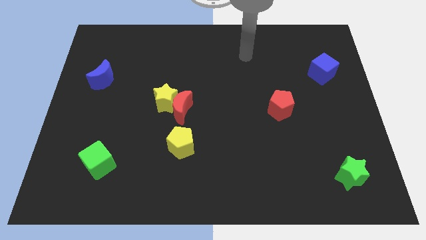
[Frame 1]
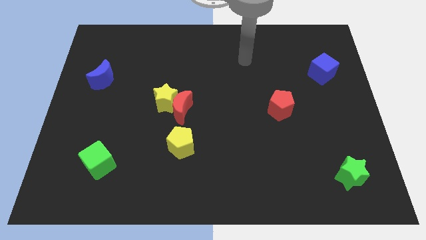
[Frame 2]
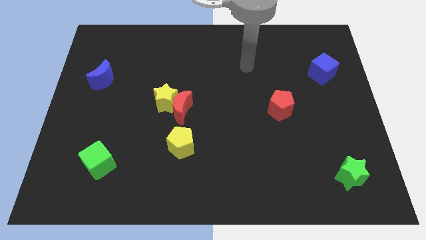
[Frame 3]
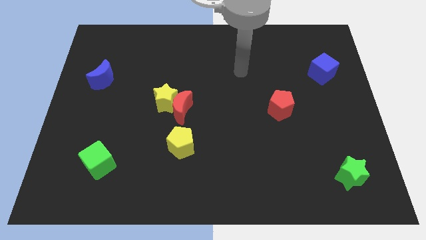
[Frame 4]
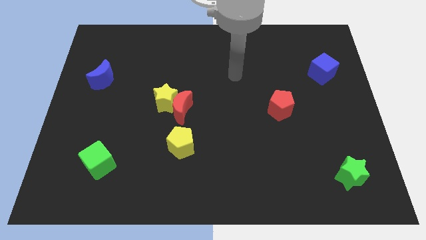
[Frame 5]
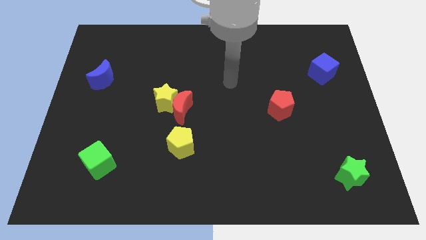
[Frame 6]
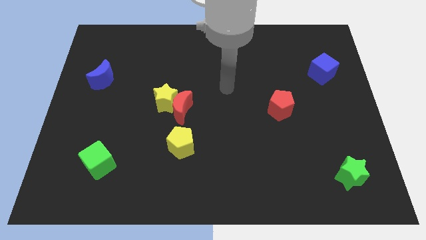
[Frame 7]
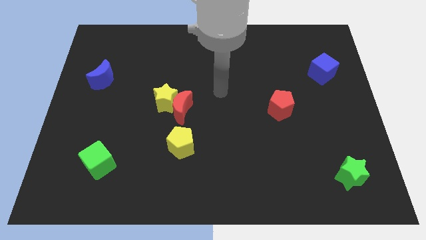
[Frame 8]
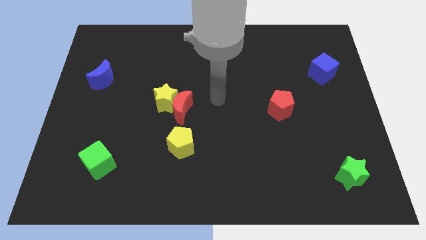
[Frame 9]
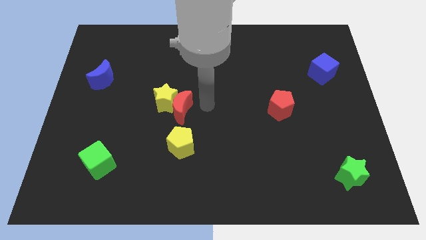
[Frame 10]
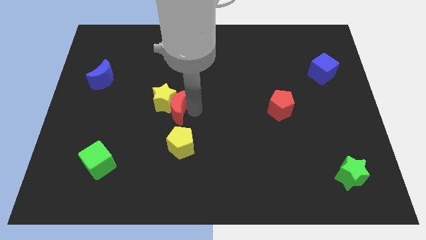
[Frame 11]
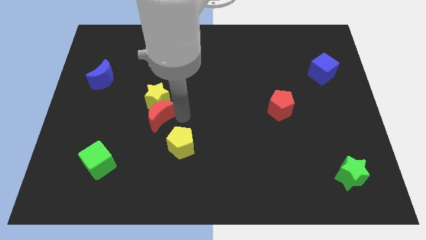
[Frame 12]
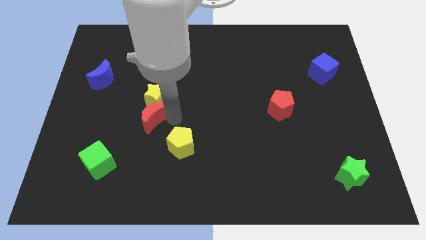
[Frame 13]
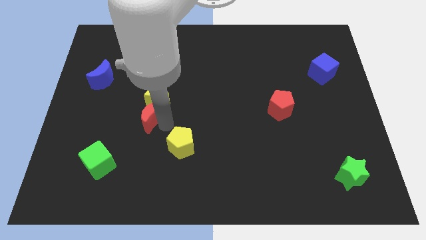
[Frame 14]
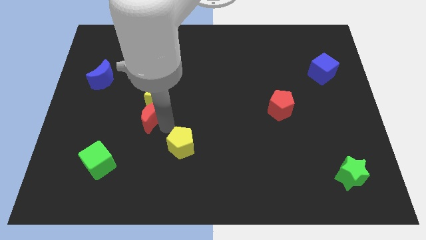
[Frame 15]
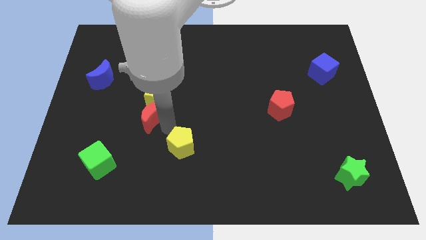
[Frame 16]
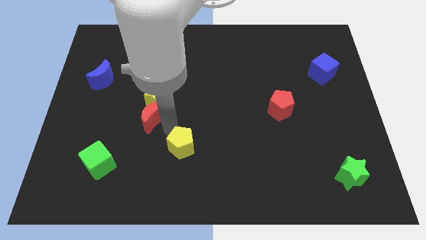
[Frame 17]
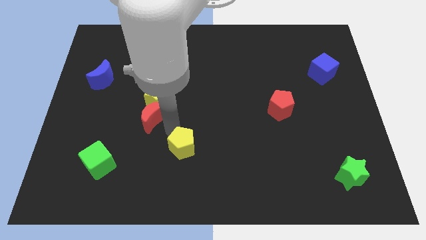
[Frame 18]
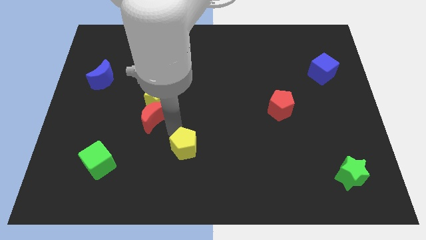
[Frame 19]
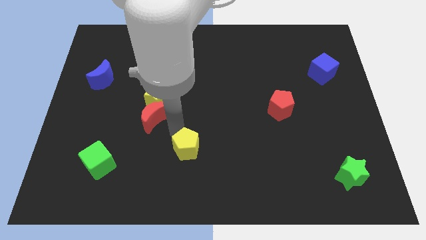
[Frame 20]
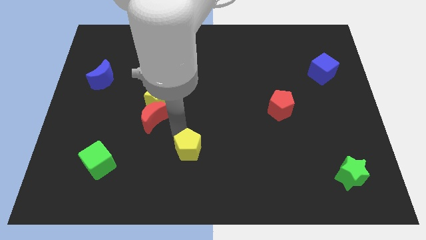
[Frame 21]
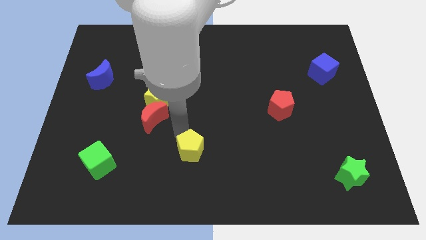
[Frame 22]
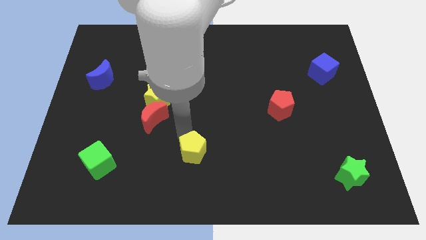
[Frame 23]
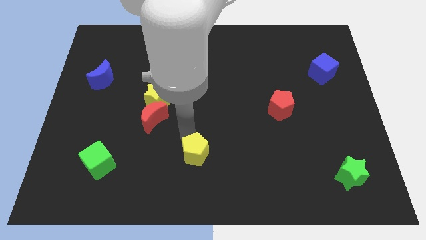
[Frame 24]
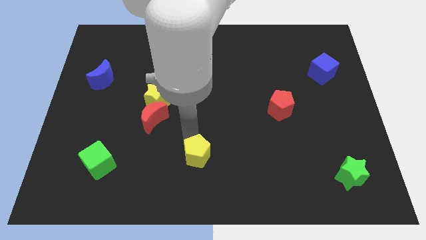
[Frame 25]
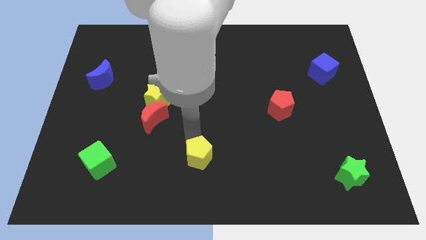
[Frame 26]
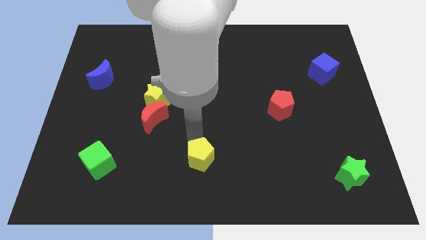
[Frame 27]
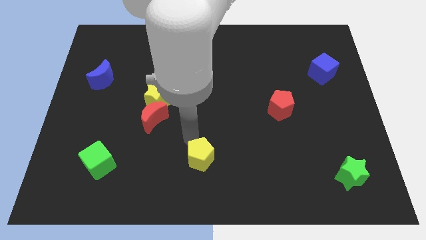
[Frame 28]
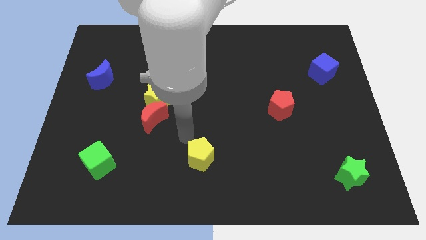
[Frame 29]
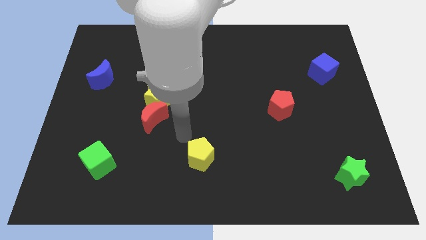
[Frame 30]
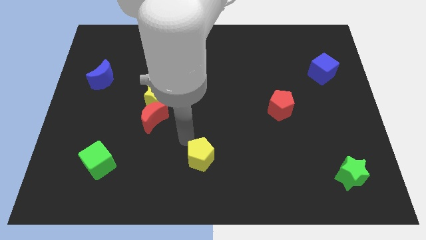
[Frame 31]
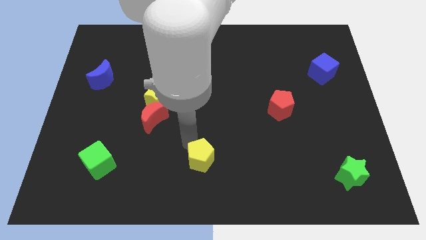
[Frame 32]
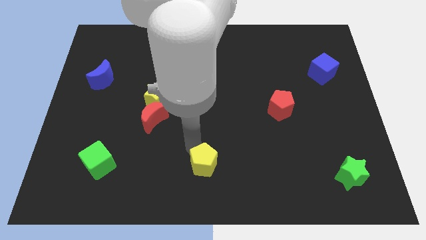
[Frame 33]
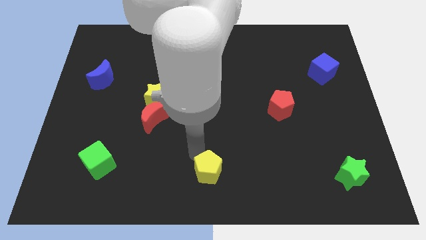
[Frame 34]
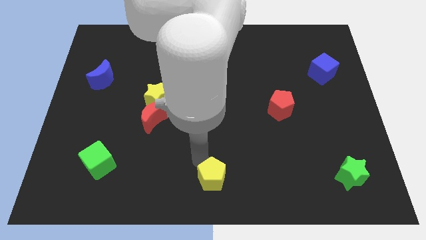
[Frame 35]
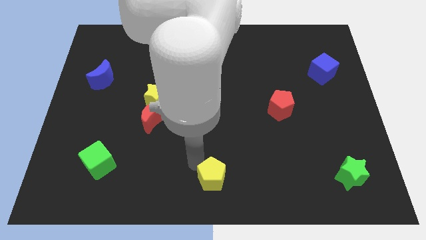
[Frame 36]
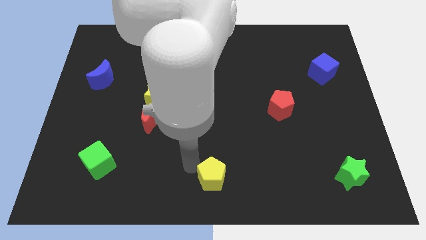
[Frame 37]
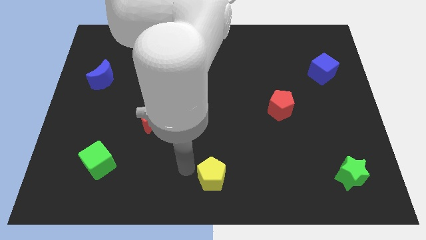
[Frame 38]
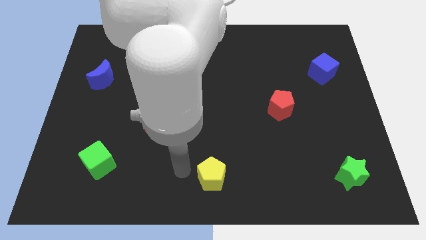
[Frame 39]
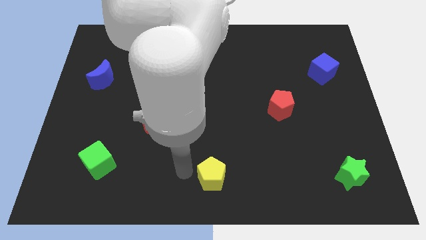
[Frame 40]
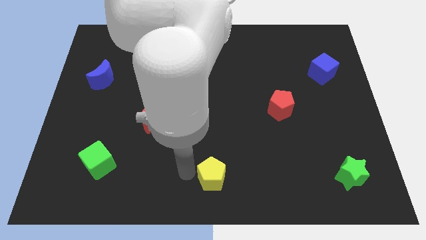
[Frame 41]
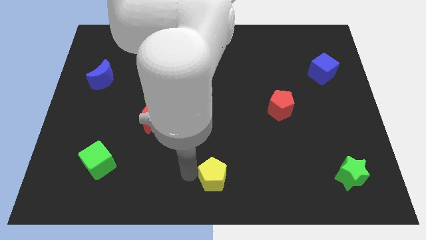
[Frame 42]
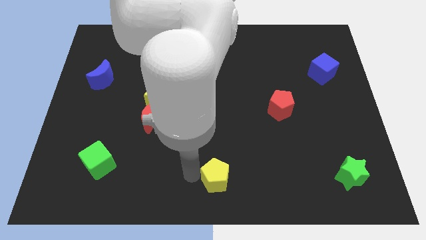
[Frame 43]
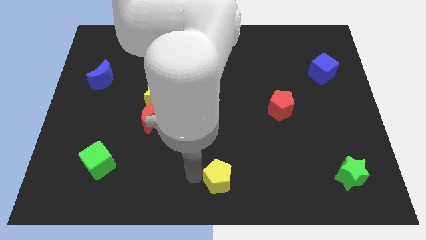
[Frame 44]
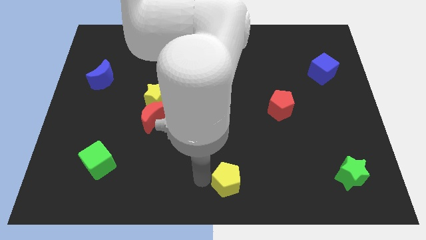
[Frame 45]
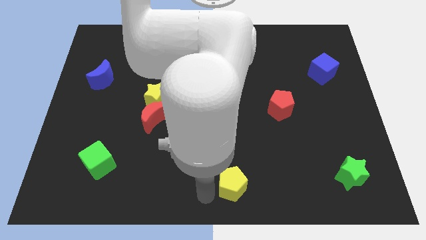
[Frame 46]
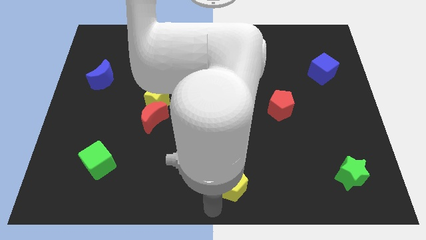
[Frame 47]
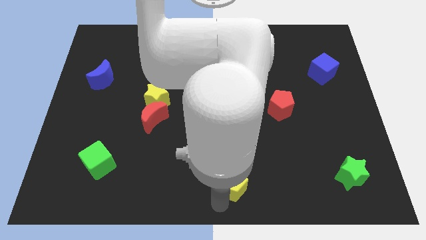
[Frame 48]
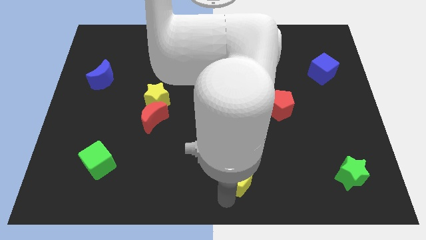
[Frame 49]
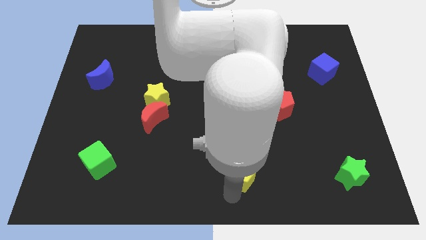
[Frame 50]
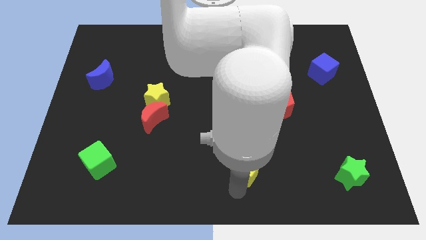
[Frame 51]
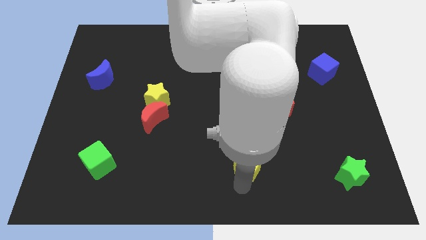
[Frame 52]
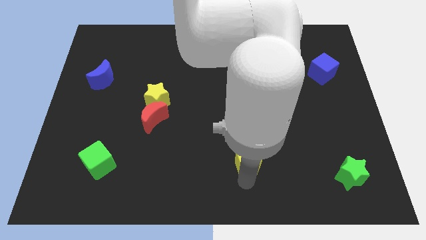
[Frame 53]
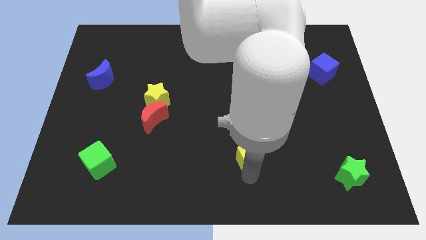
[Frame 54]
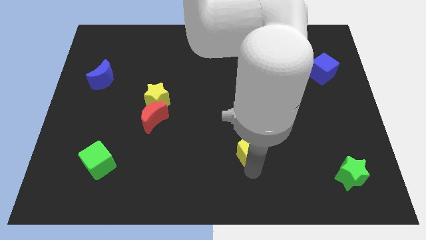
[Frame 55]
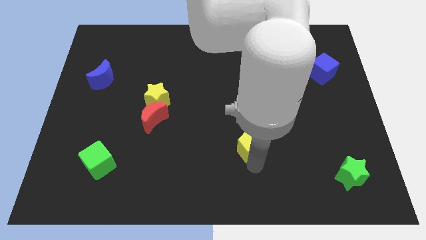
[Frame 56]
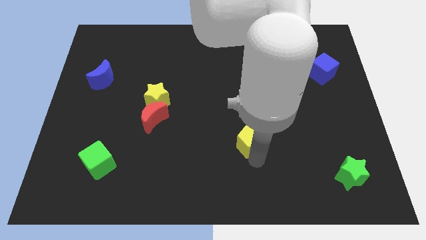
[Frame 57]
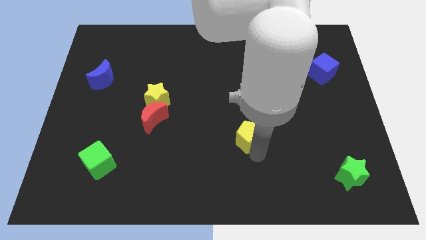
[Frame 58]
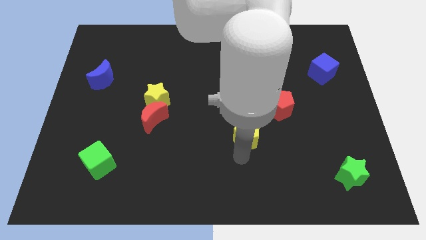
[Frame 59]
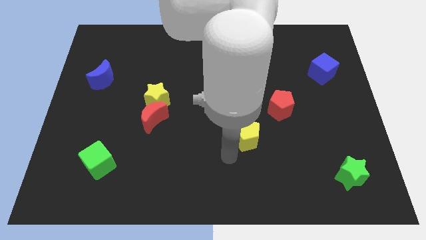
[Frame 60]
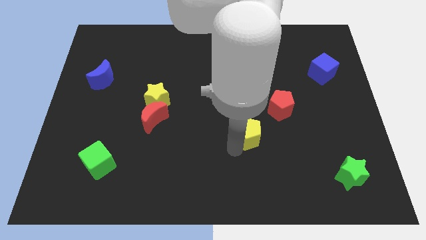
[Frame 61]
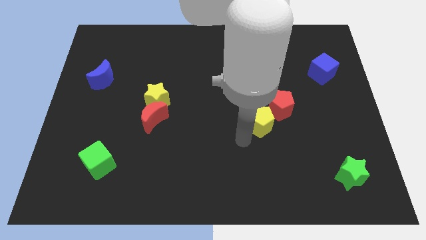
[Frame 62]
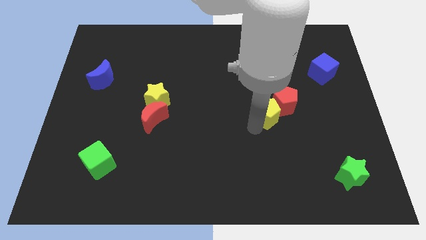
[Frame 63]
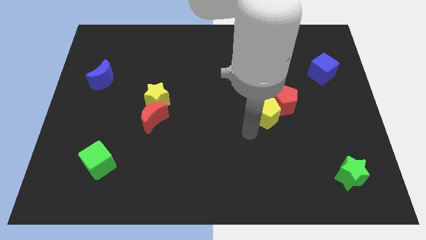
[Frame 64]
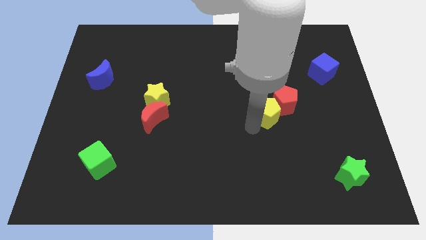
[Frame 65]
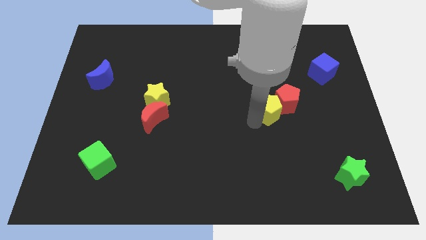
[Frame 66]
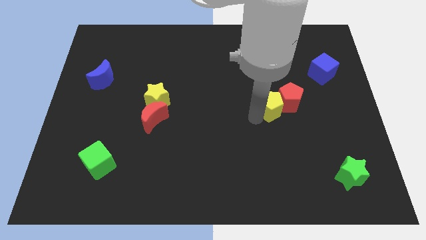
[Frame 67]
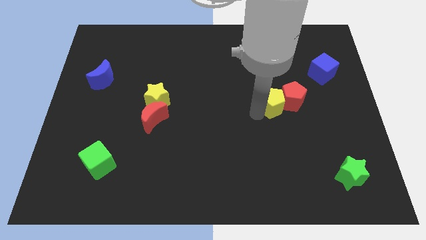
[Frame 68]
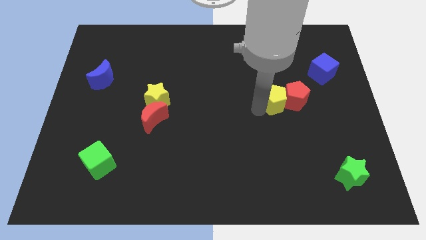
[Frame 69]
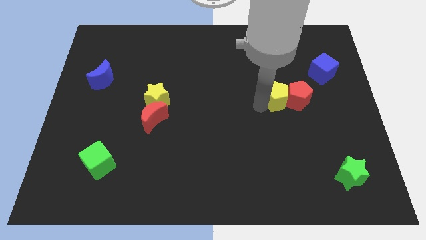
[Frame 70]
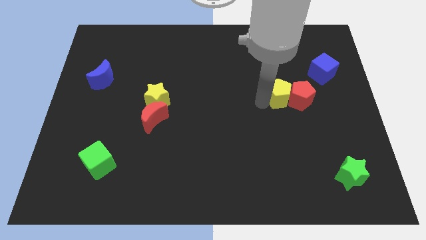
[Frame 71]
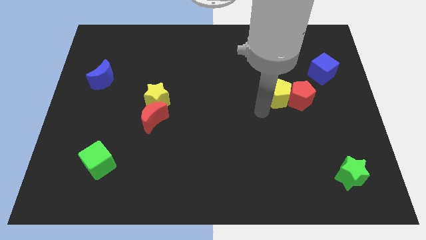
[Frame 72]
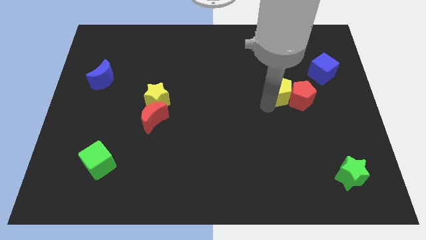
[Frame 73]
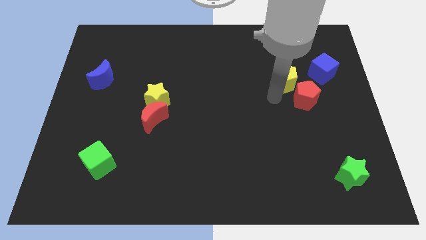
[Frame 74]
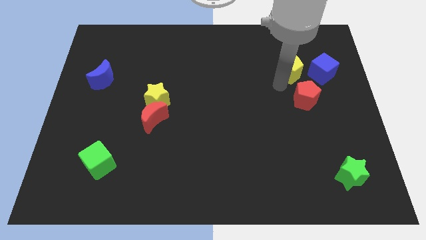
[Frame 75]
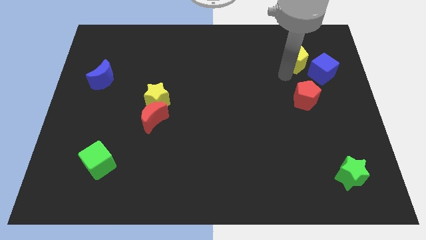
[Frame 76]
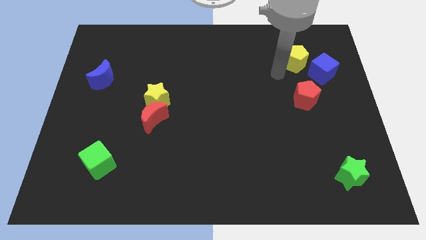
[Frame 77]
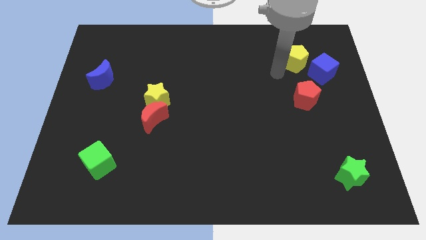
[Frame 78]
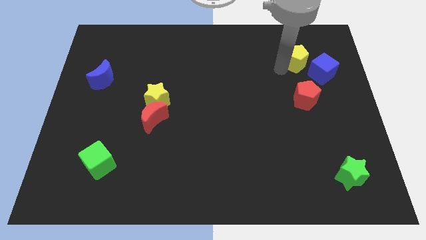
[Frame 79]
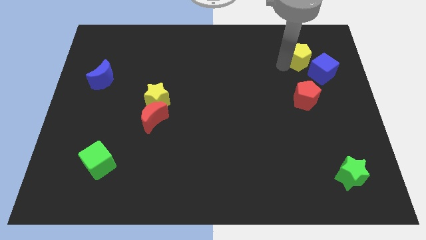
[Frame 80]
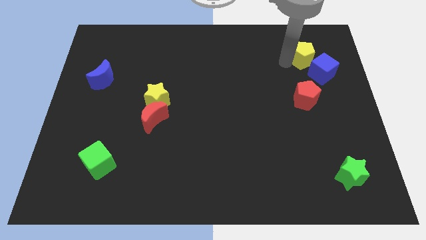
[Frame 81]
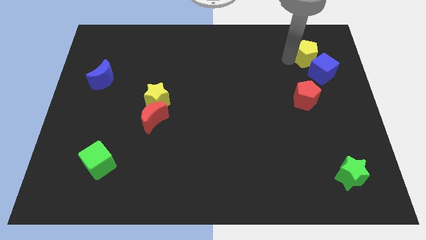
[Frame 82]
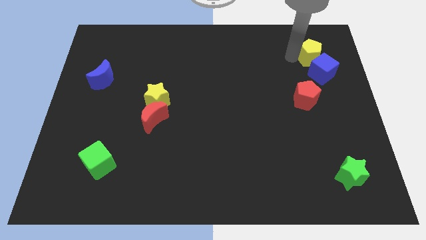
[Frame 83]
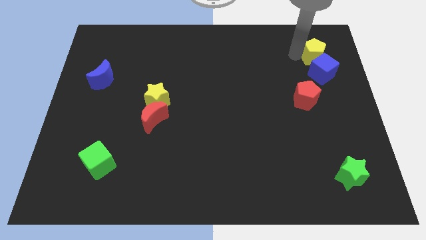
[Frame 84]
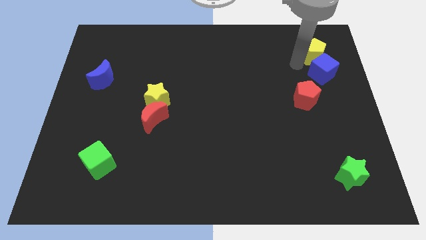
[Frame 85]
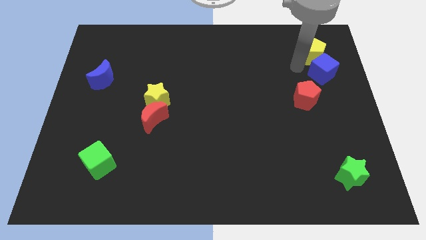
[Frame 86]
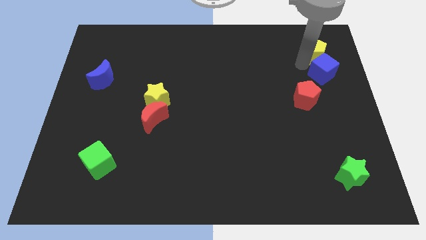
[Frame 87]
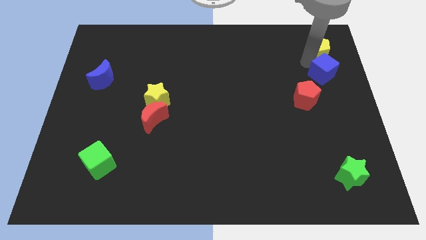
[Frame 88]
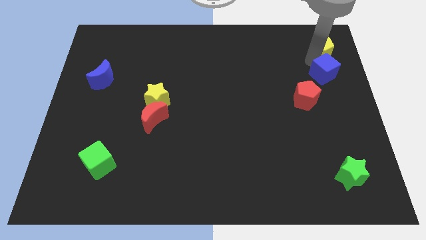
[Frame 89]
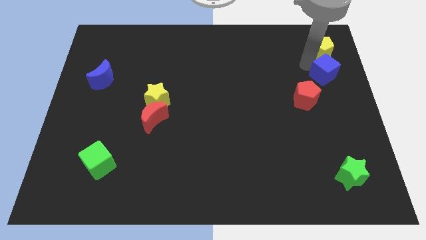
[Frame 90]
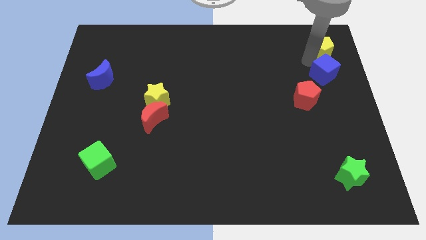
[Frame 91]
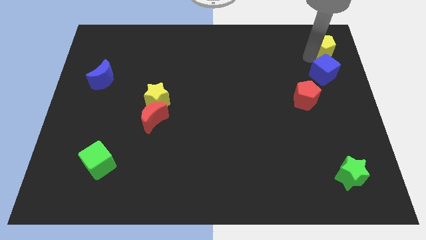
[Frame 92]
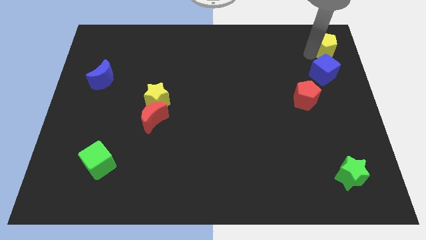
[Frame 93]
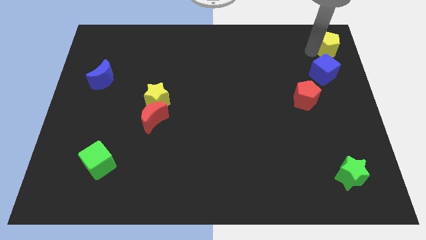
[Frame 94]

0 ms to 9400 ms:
push the yellow pentagon to the top right
